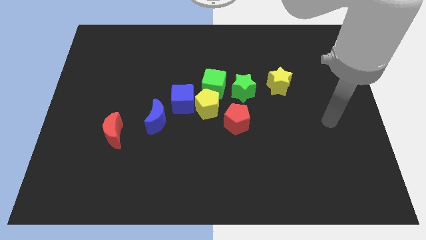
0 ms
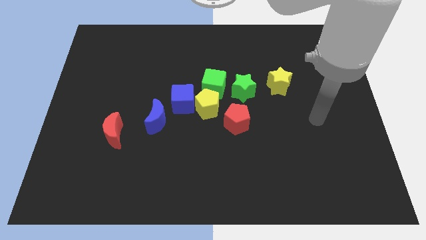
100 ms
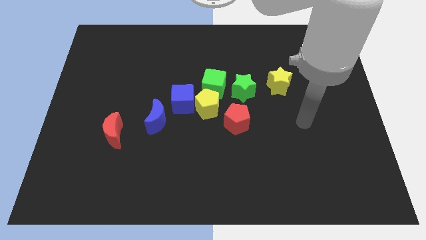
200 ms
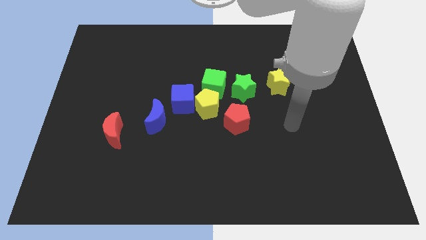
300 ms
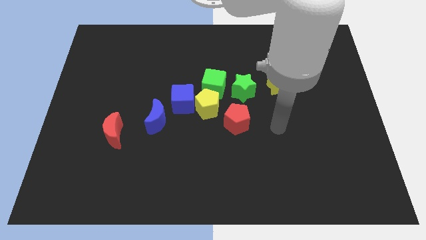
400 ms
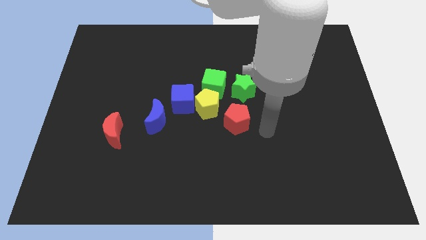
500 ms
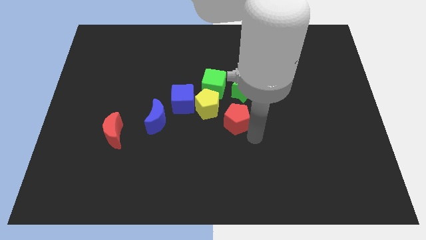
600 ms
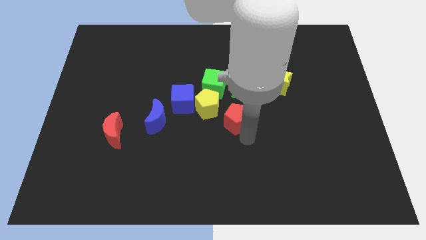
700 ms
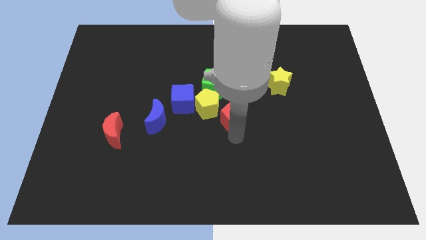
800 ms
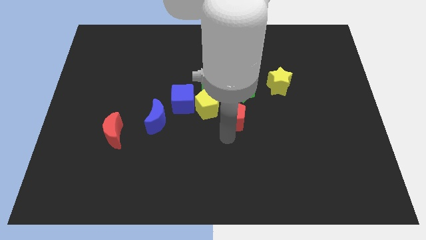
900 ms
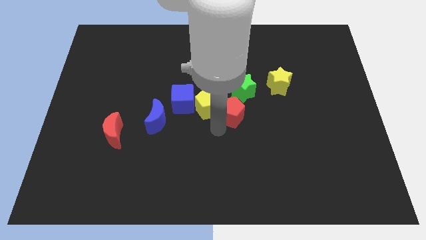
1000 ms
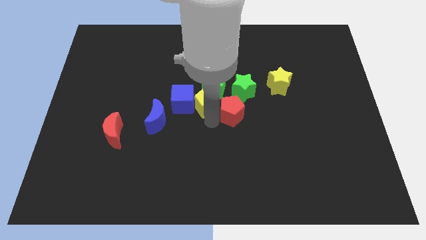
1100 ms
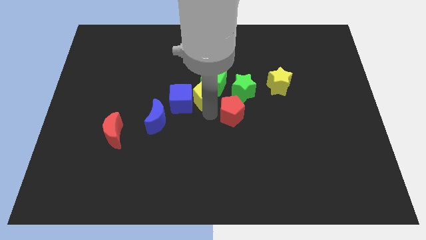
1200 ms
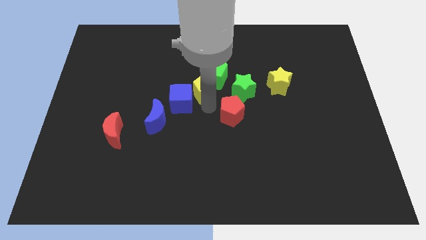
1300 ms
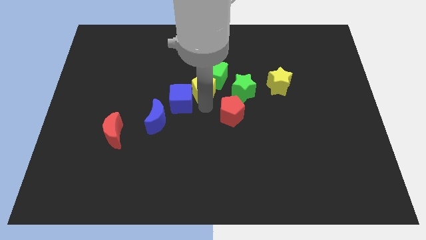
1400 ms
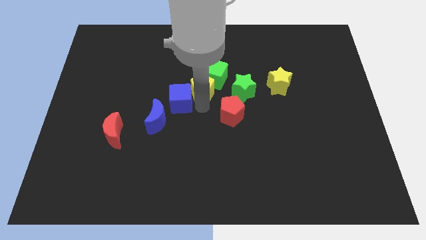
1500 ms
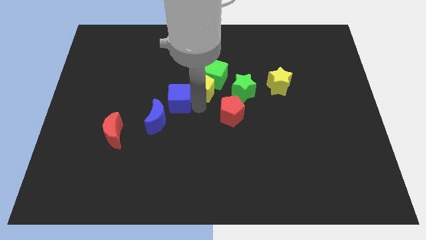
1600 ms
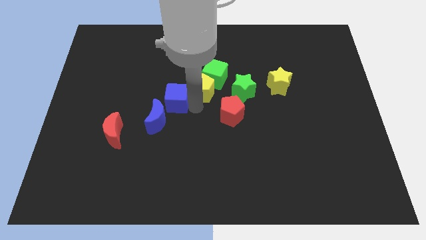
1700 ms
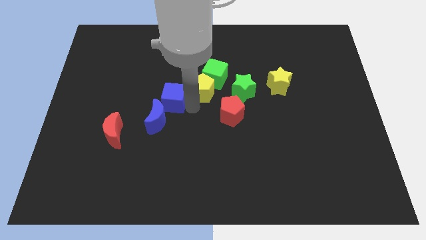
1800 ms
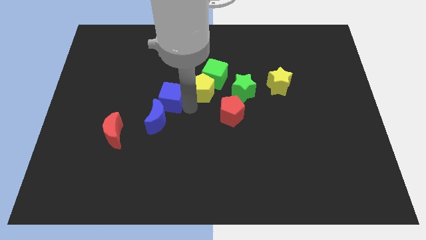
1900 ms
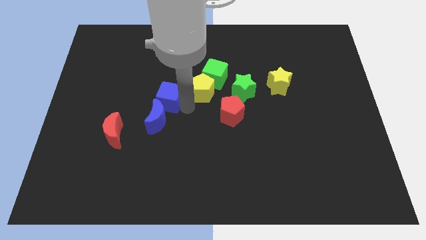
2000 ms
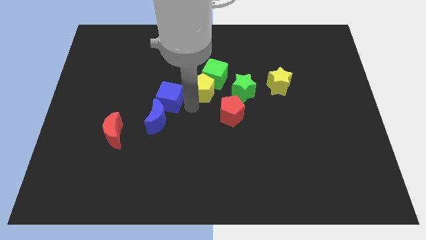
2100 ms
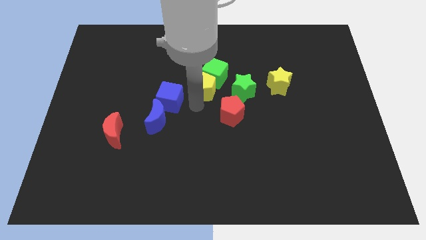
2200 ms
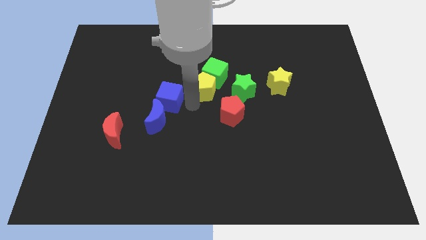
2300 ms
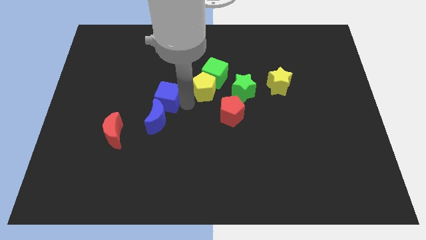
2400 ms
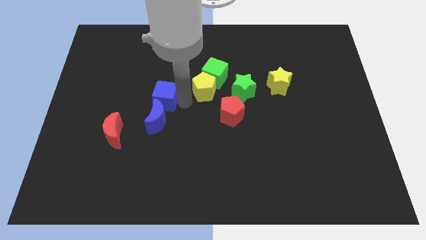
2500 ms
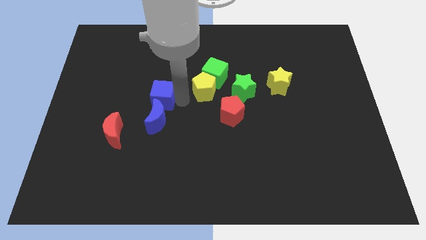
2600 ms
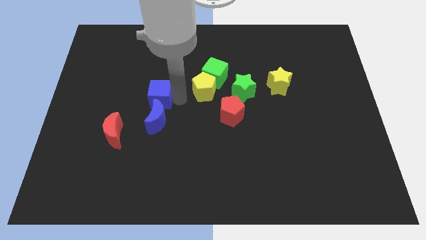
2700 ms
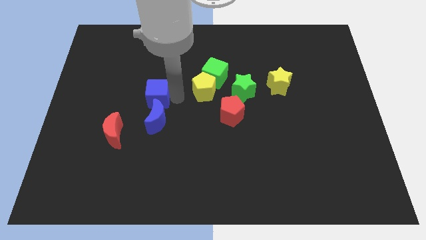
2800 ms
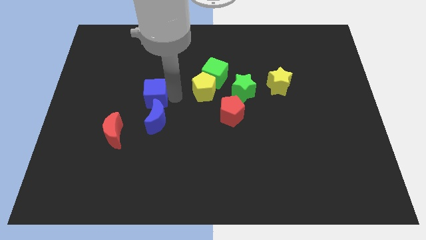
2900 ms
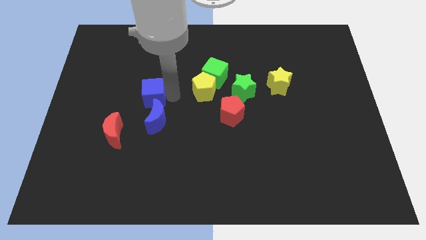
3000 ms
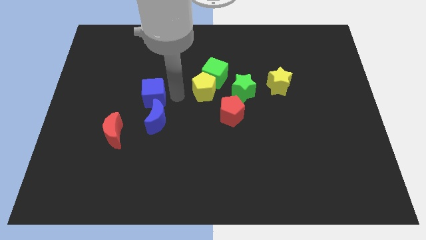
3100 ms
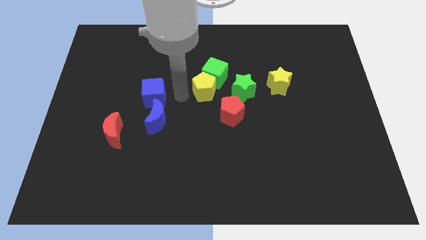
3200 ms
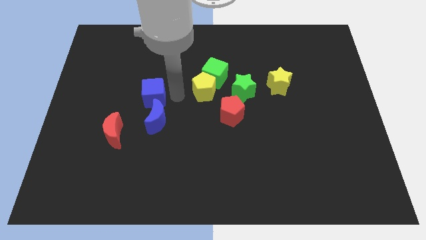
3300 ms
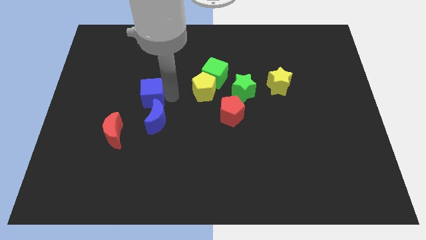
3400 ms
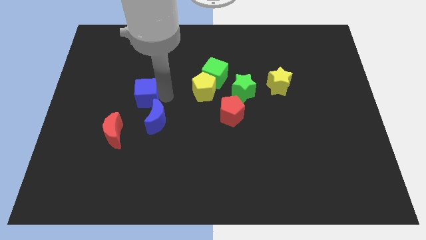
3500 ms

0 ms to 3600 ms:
pull the blue cube apart from the group

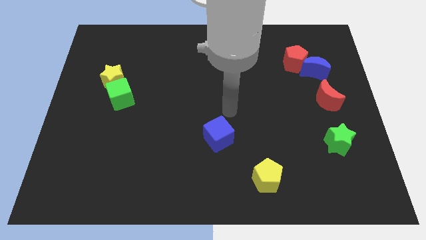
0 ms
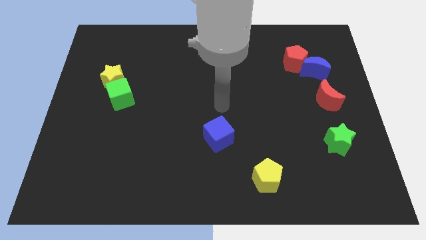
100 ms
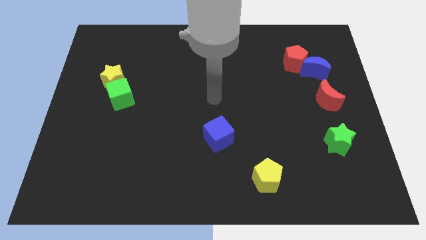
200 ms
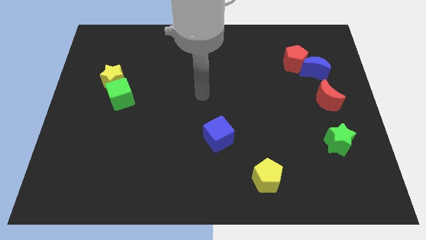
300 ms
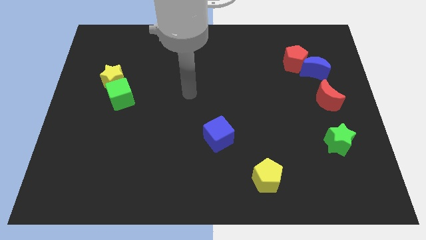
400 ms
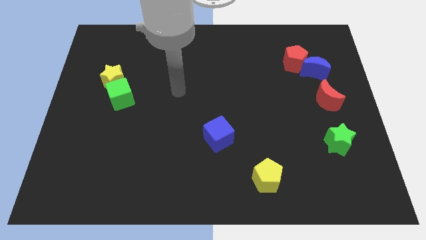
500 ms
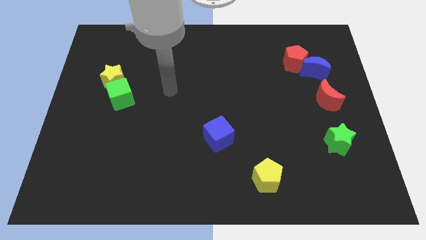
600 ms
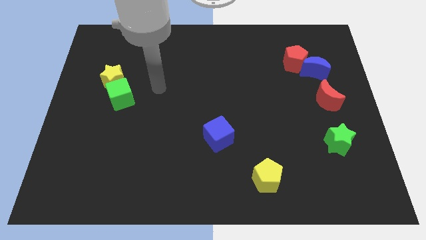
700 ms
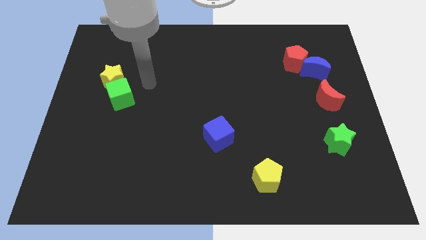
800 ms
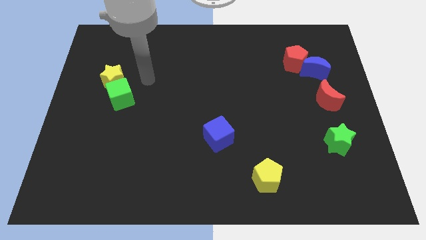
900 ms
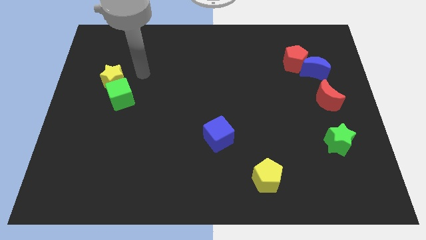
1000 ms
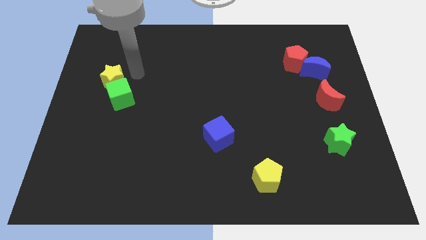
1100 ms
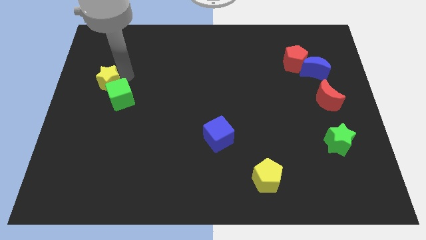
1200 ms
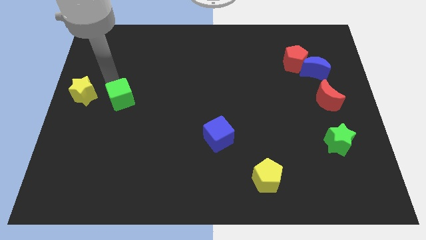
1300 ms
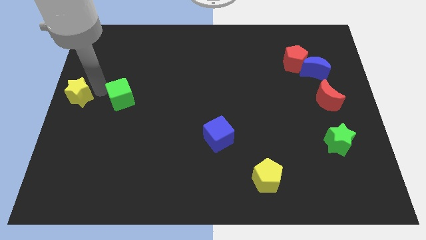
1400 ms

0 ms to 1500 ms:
move the green cube away from the yellow star

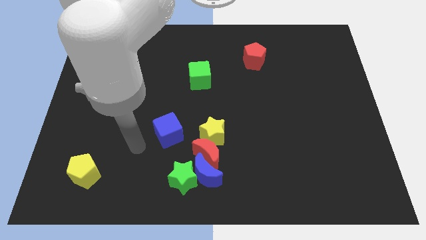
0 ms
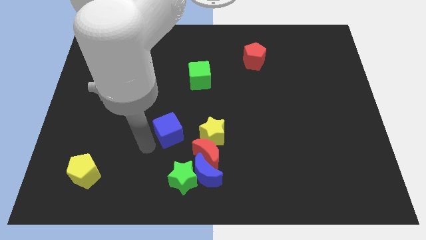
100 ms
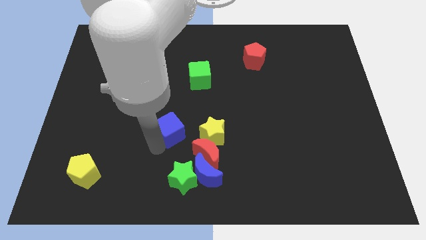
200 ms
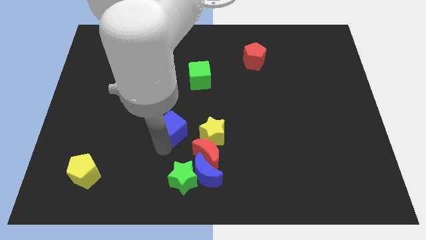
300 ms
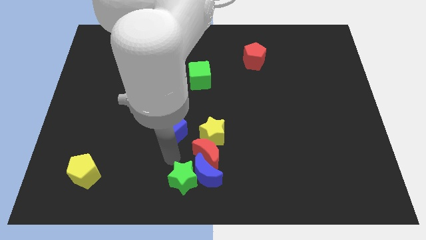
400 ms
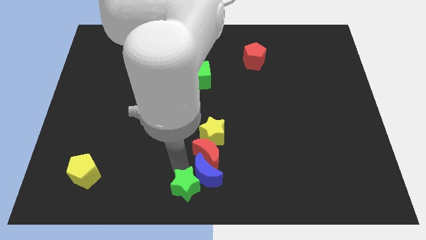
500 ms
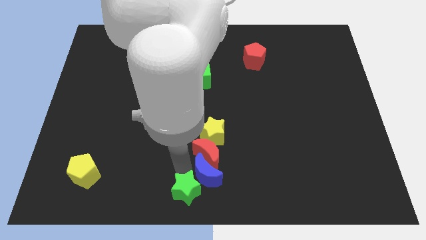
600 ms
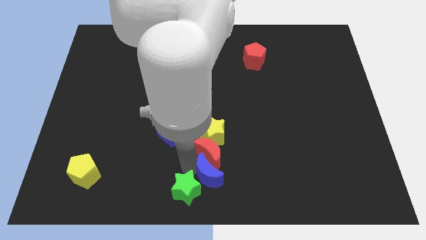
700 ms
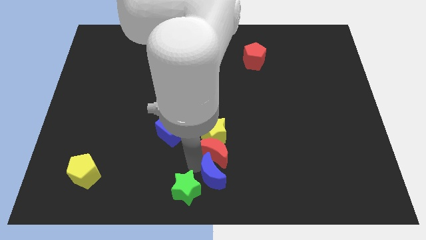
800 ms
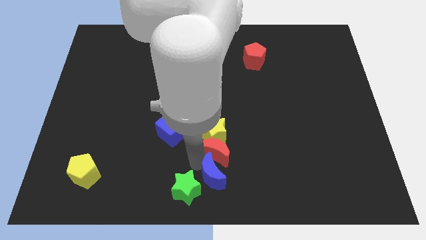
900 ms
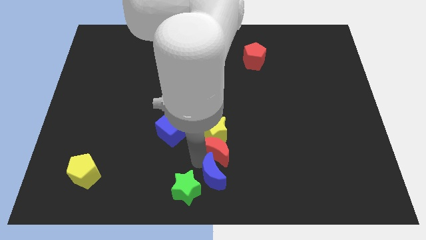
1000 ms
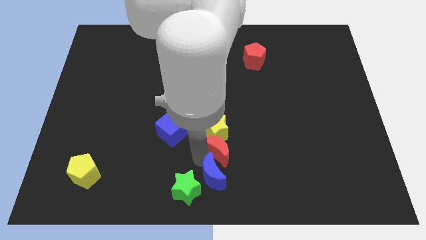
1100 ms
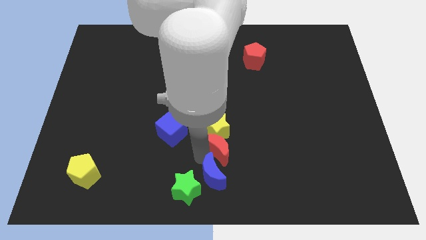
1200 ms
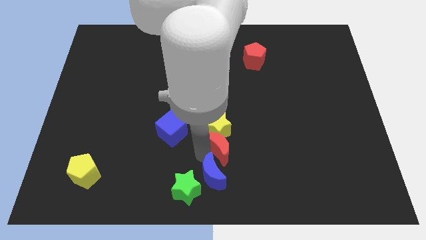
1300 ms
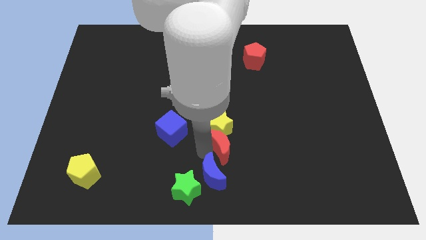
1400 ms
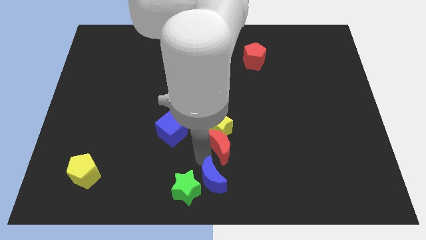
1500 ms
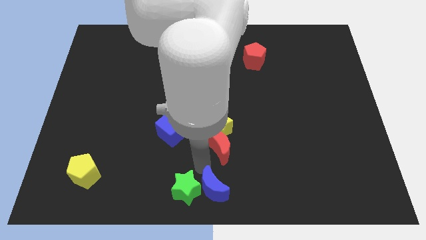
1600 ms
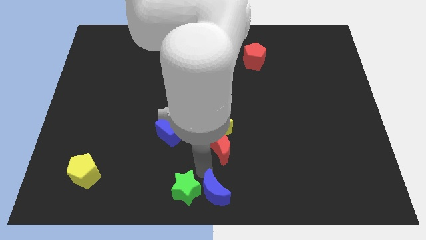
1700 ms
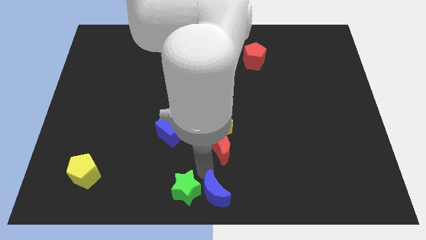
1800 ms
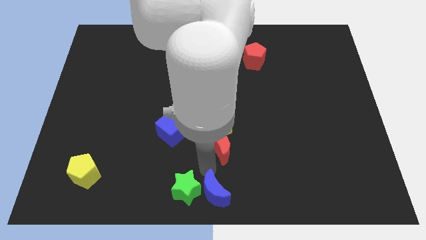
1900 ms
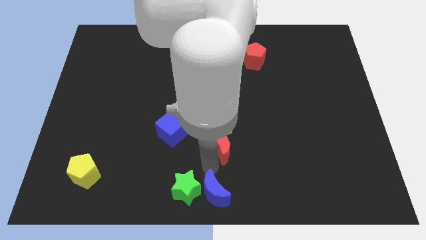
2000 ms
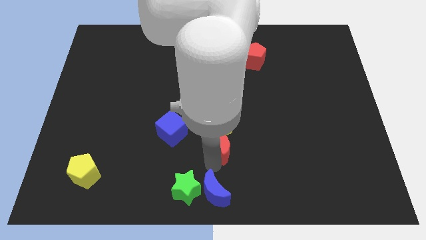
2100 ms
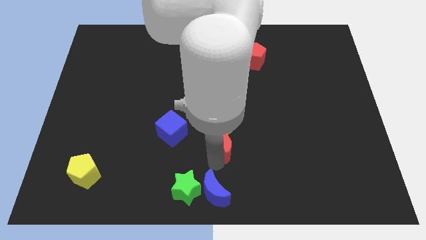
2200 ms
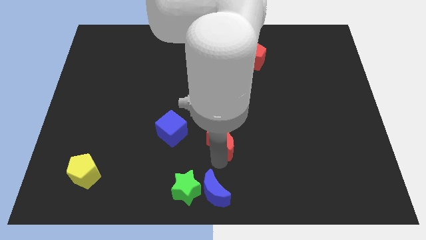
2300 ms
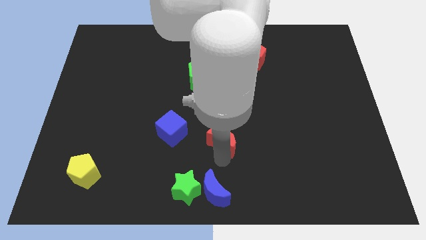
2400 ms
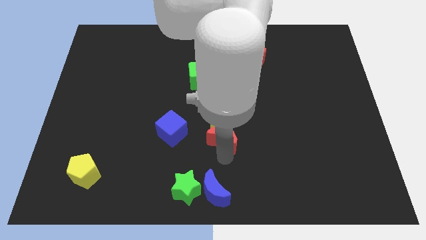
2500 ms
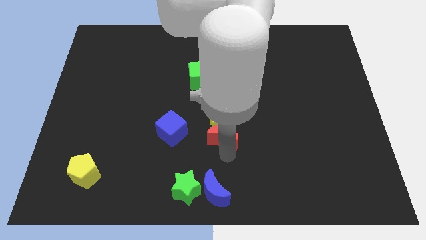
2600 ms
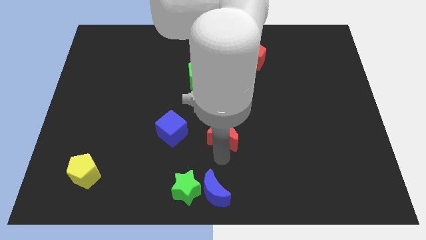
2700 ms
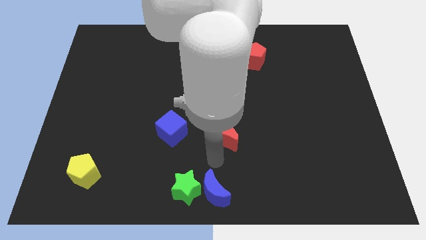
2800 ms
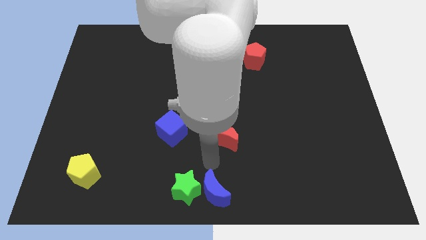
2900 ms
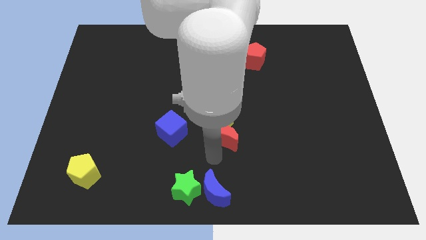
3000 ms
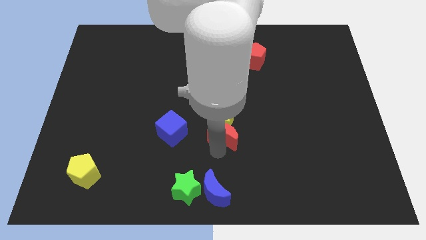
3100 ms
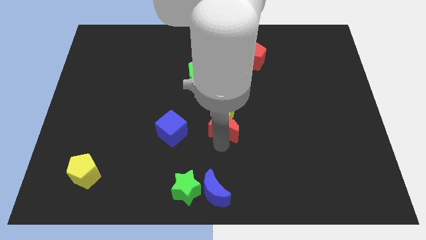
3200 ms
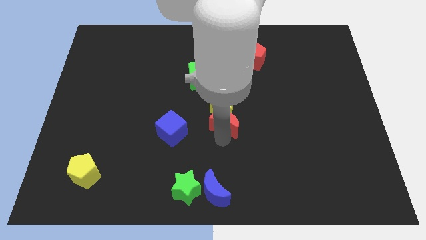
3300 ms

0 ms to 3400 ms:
pull the red moon apart from the group of blocks

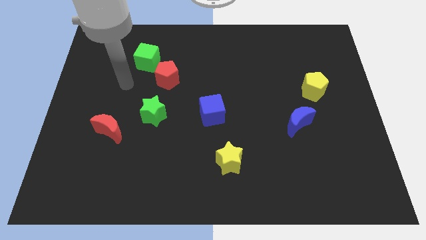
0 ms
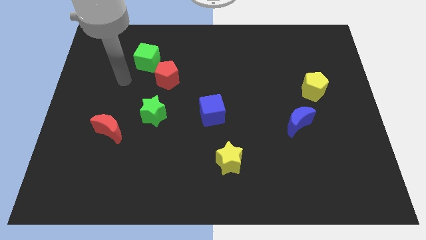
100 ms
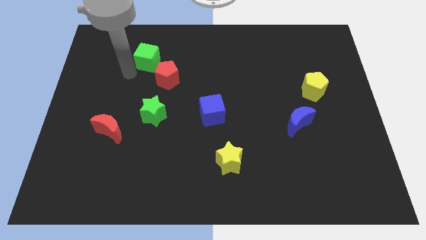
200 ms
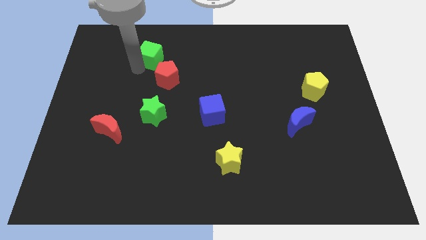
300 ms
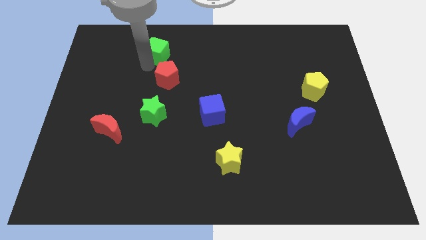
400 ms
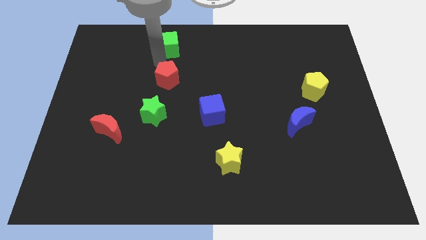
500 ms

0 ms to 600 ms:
separate the red pentagon from the green cube

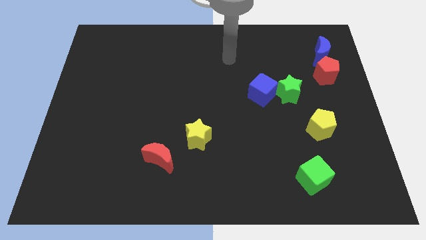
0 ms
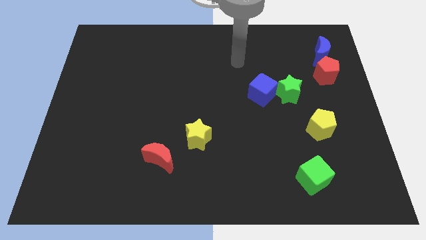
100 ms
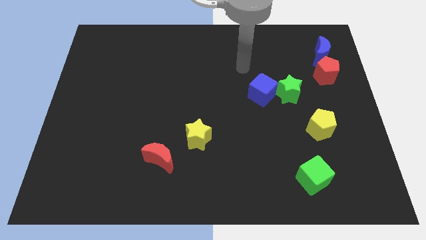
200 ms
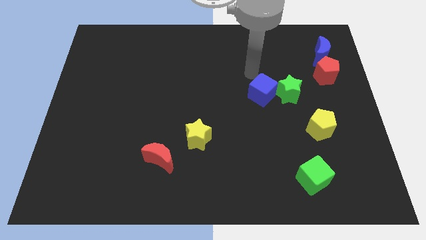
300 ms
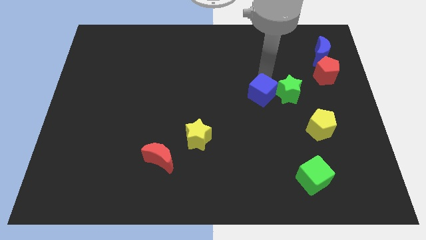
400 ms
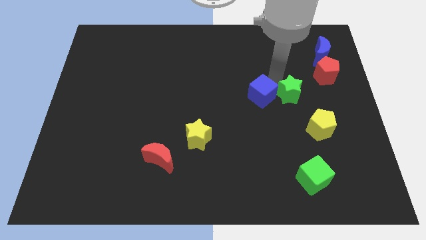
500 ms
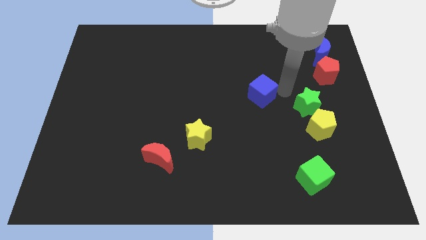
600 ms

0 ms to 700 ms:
separate the blue cube from the green star
